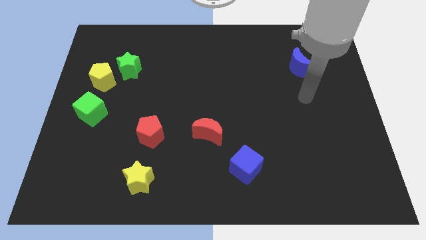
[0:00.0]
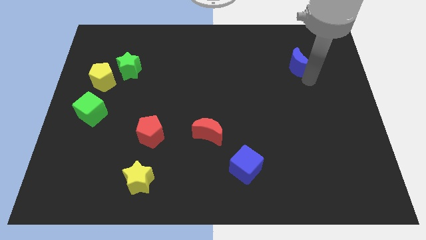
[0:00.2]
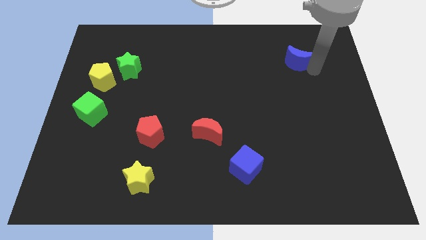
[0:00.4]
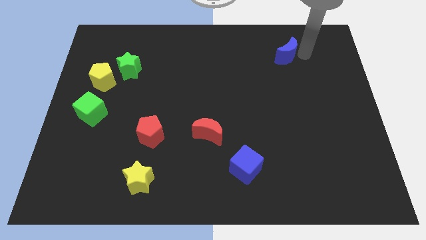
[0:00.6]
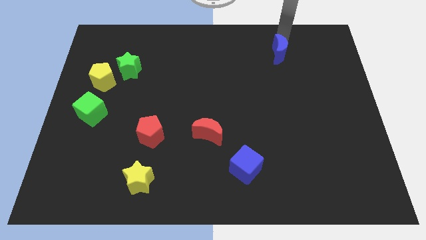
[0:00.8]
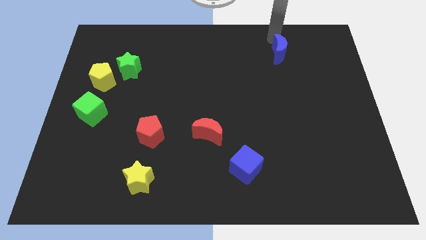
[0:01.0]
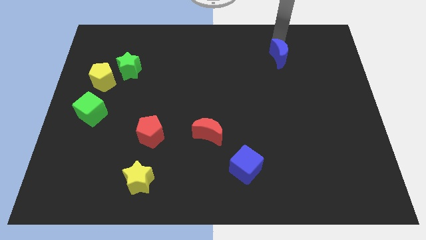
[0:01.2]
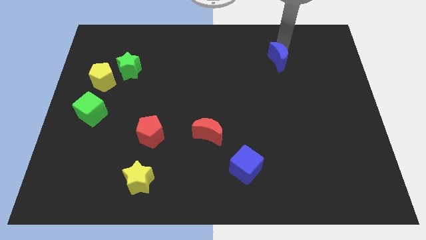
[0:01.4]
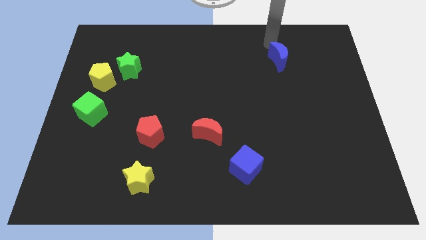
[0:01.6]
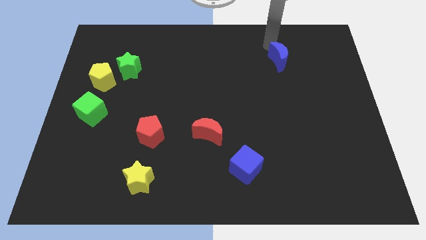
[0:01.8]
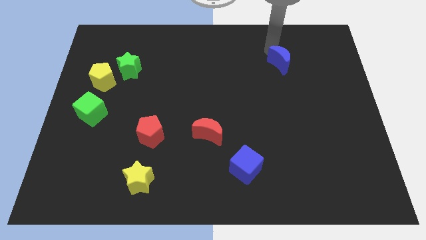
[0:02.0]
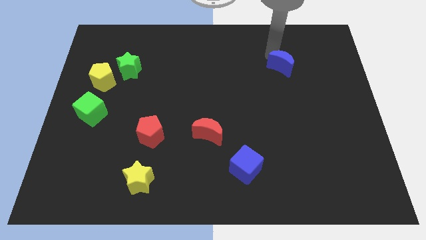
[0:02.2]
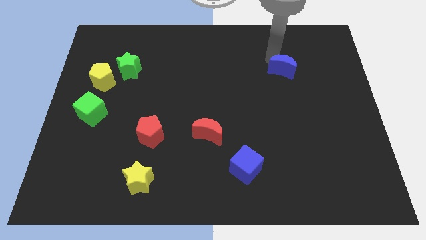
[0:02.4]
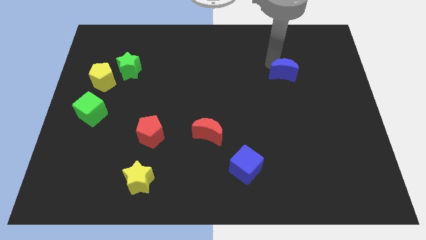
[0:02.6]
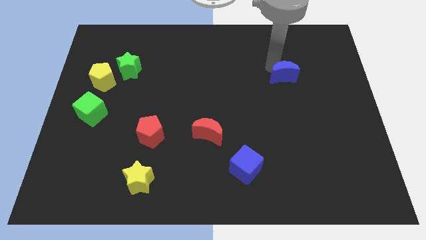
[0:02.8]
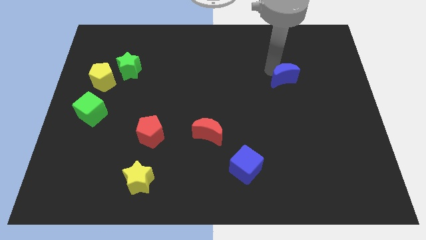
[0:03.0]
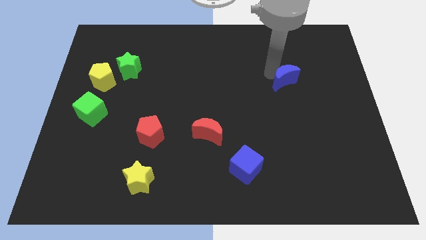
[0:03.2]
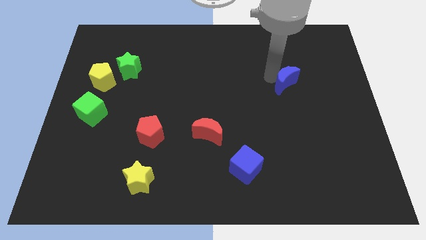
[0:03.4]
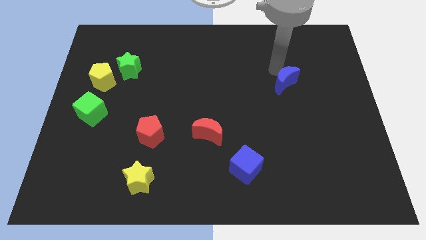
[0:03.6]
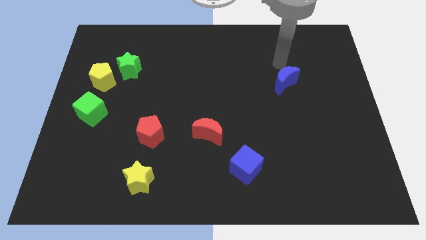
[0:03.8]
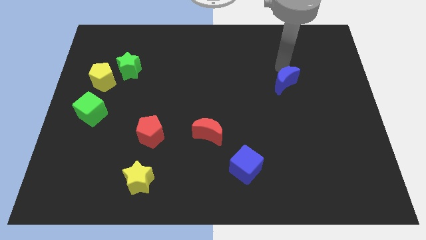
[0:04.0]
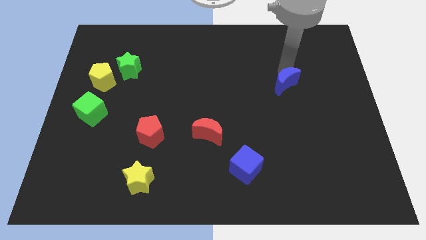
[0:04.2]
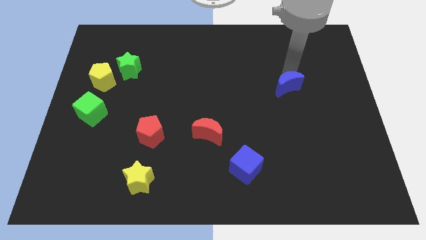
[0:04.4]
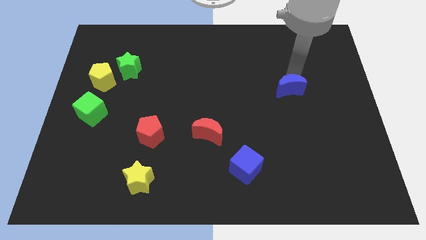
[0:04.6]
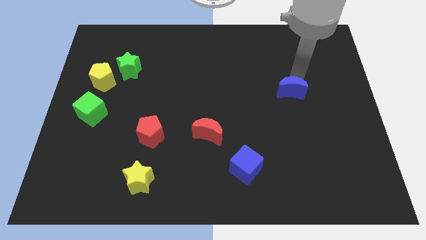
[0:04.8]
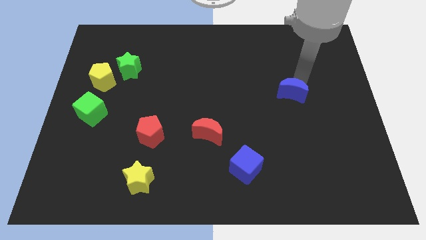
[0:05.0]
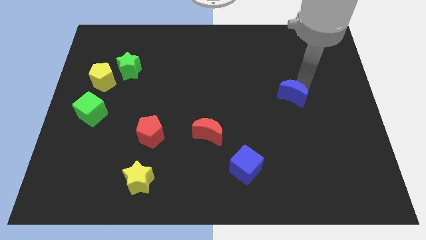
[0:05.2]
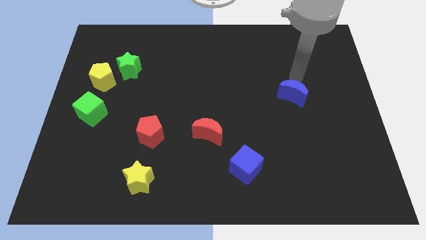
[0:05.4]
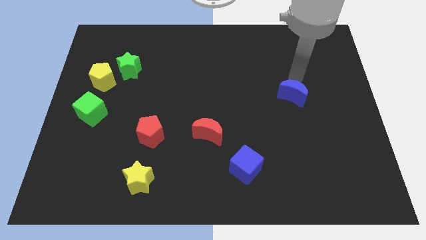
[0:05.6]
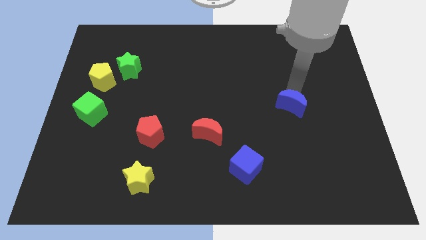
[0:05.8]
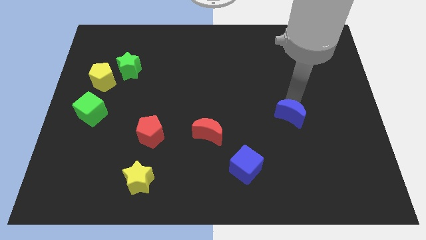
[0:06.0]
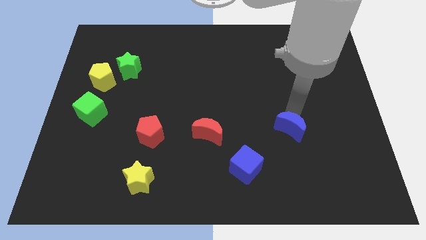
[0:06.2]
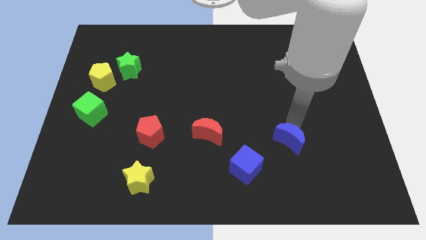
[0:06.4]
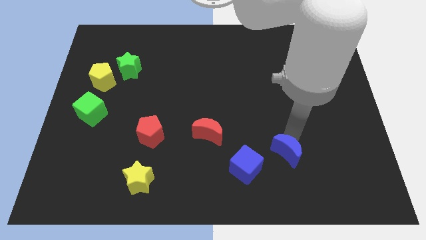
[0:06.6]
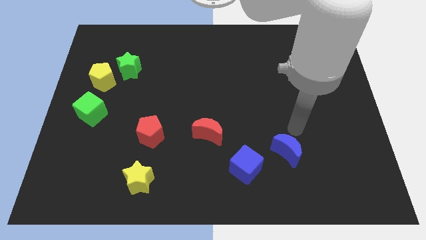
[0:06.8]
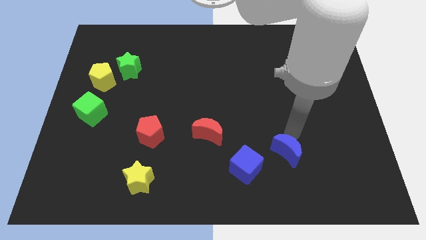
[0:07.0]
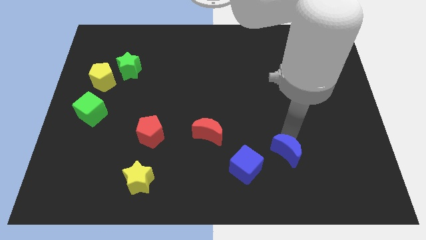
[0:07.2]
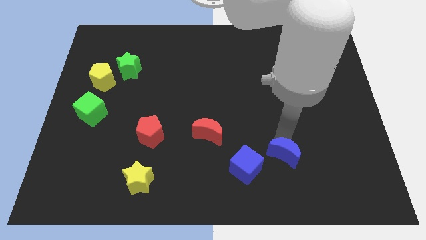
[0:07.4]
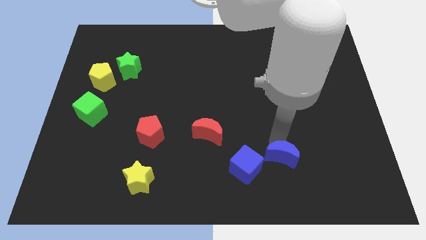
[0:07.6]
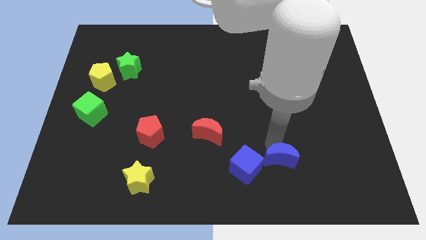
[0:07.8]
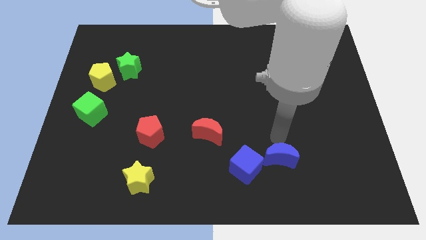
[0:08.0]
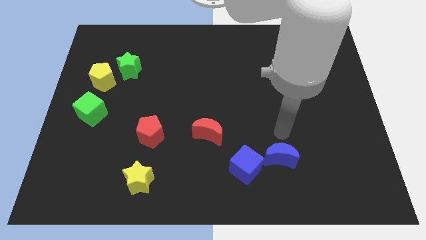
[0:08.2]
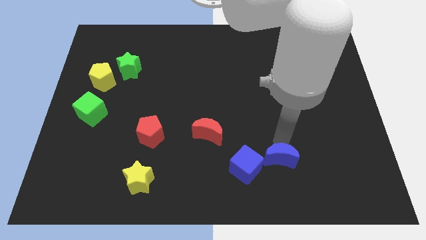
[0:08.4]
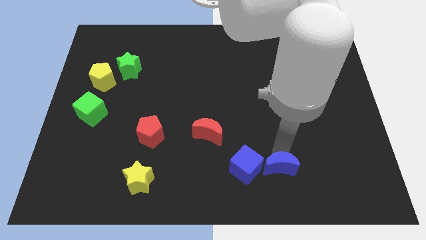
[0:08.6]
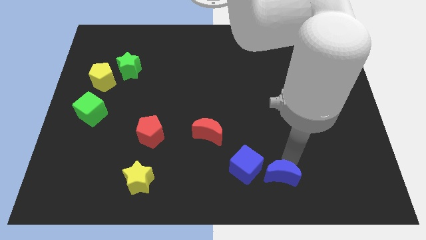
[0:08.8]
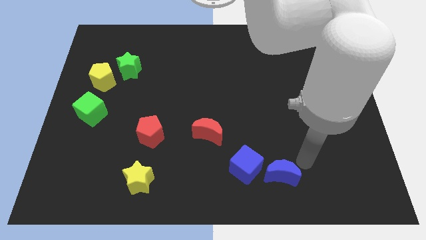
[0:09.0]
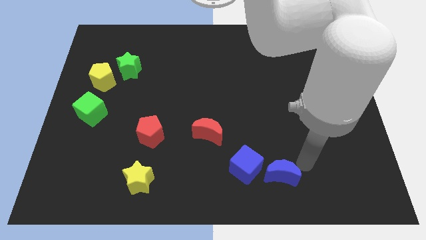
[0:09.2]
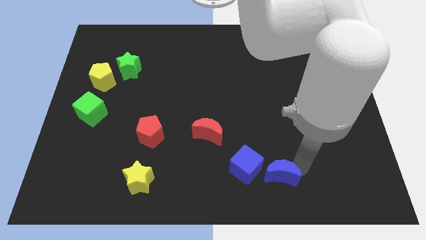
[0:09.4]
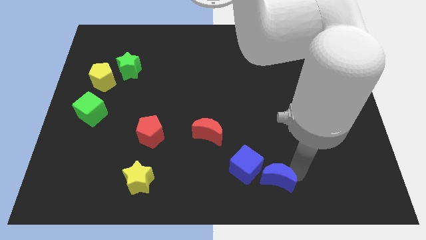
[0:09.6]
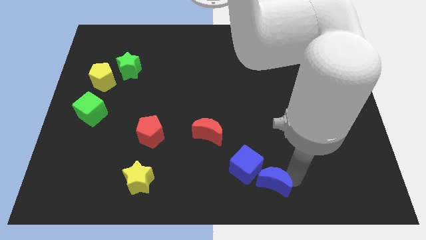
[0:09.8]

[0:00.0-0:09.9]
move the blue moon to the bottom

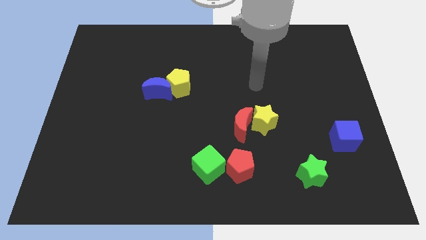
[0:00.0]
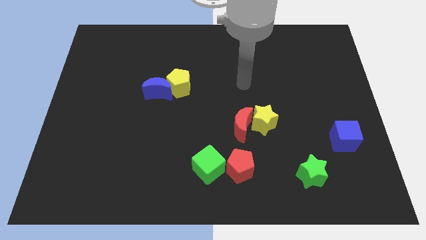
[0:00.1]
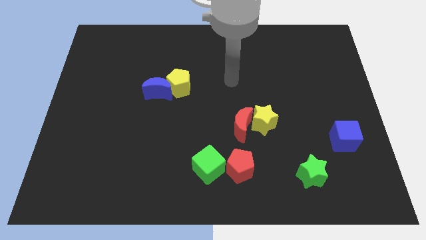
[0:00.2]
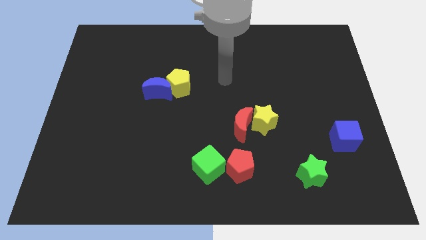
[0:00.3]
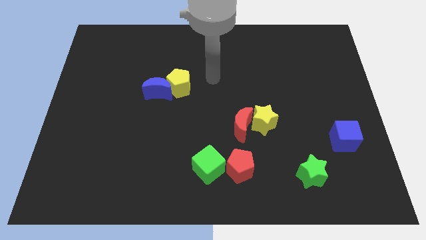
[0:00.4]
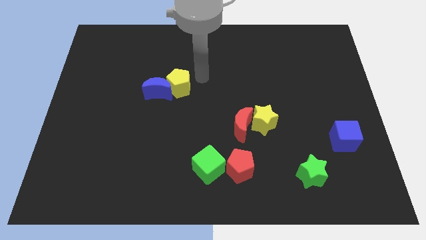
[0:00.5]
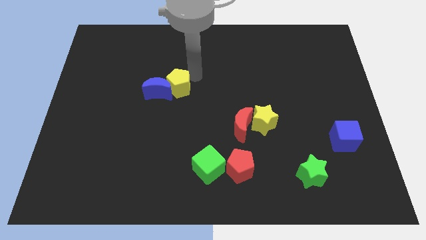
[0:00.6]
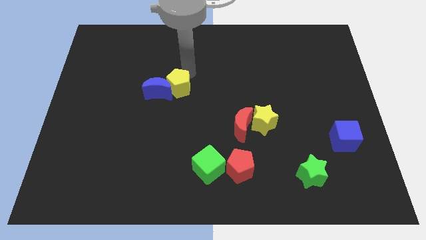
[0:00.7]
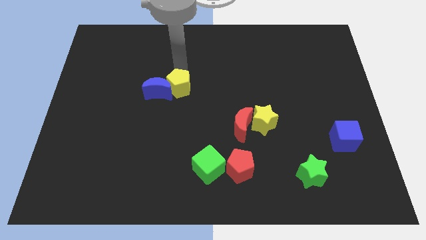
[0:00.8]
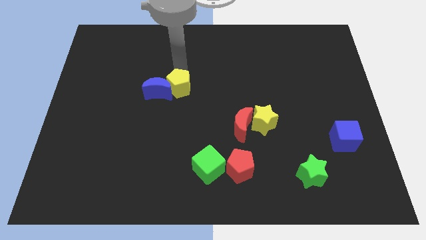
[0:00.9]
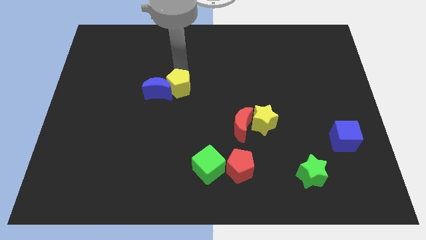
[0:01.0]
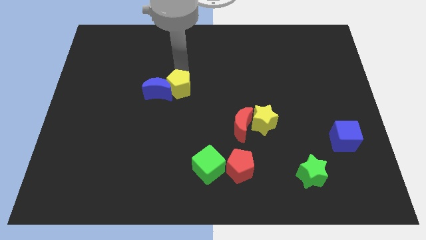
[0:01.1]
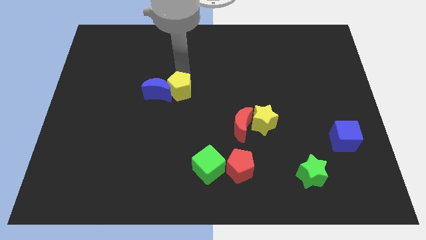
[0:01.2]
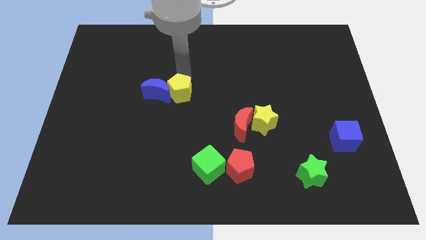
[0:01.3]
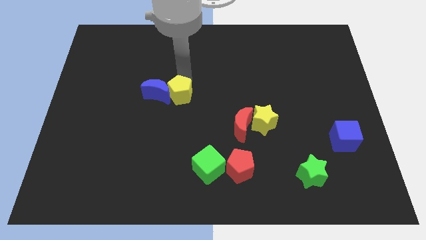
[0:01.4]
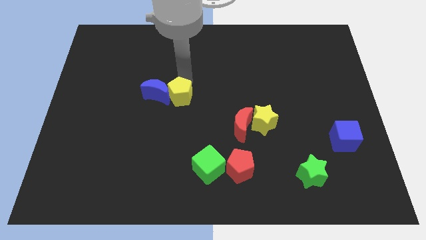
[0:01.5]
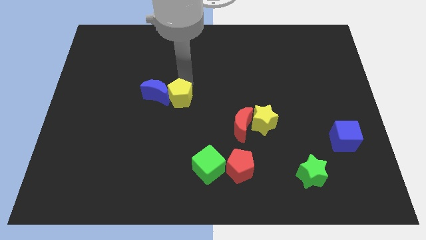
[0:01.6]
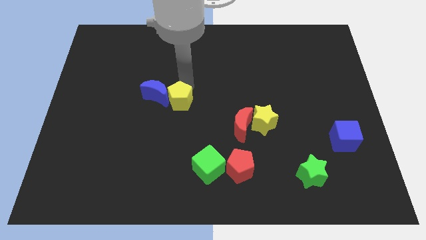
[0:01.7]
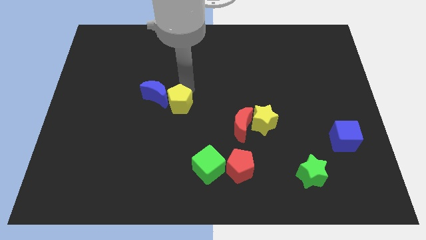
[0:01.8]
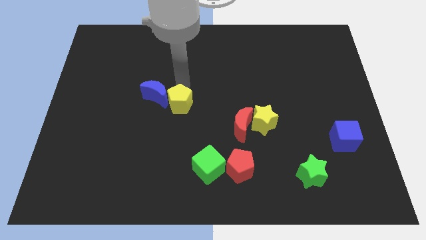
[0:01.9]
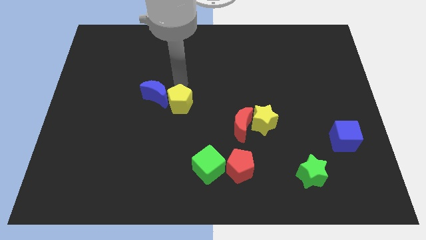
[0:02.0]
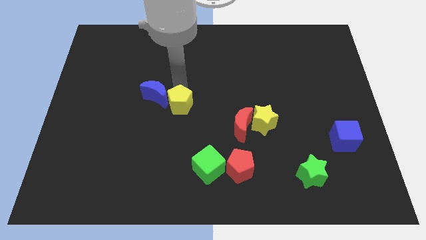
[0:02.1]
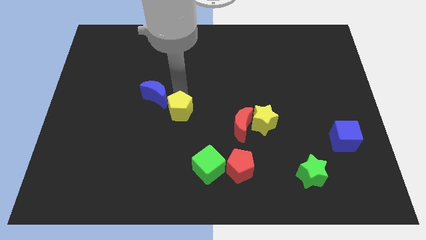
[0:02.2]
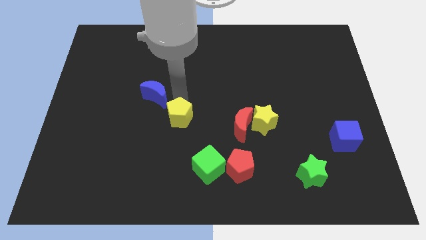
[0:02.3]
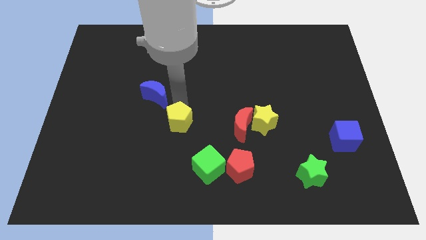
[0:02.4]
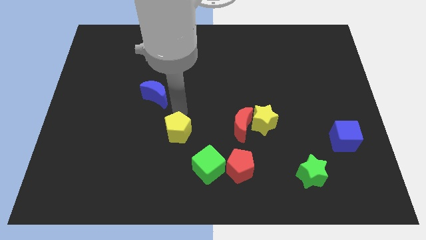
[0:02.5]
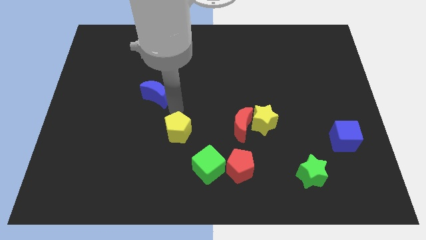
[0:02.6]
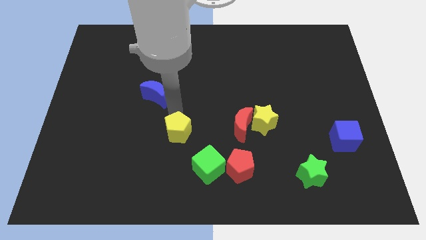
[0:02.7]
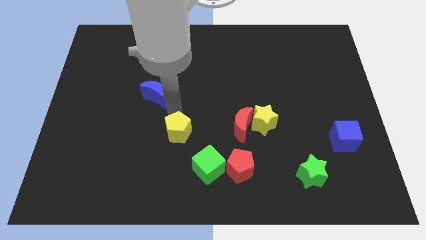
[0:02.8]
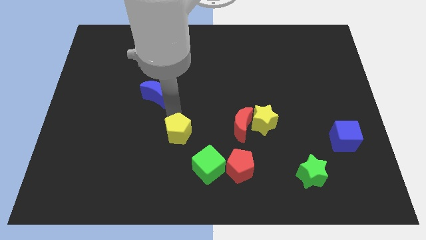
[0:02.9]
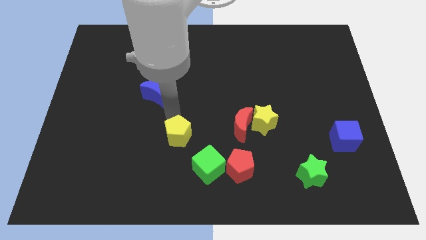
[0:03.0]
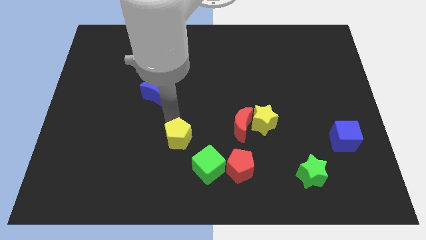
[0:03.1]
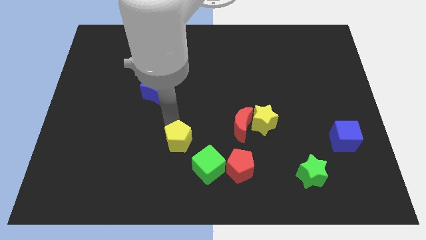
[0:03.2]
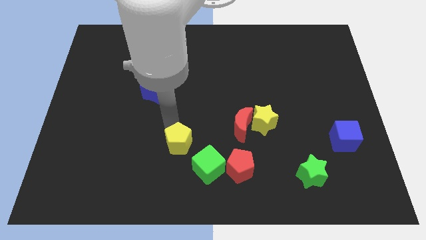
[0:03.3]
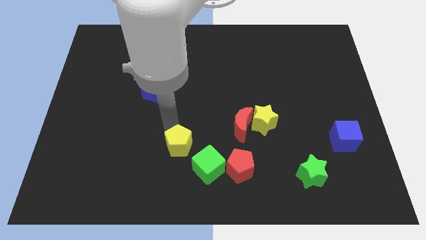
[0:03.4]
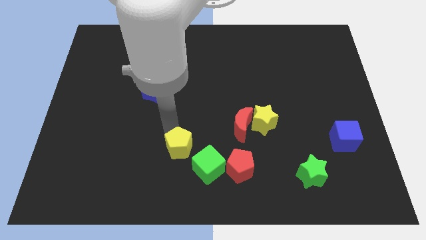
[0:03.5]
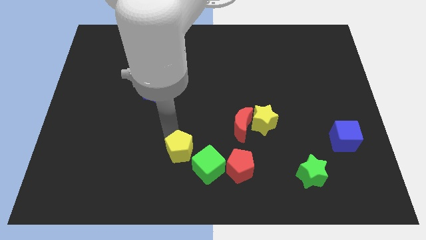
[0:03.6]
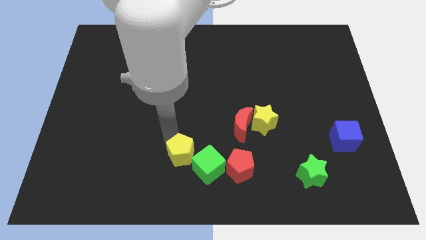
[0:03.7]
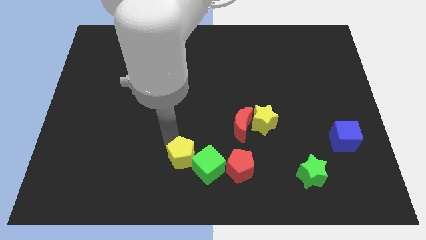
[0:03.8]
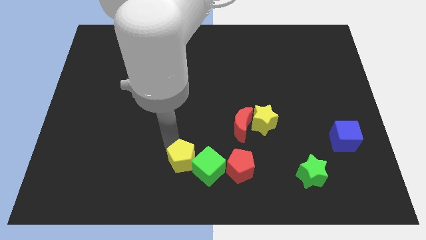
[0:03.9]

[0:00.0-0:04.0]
push the yellow pentagon to the bottom side
